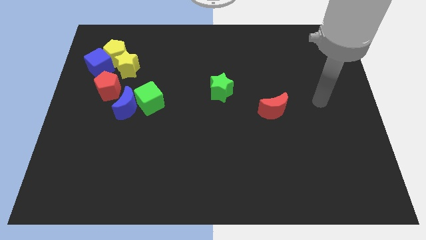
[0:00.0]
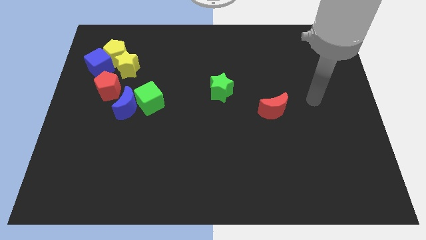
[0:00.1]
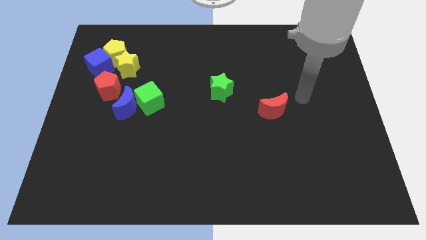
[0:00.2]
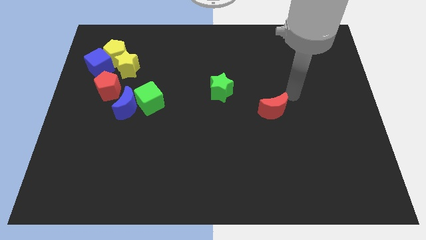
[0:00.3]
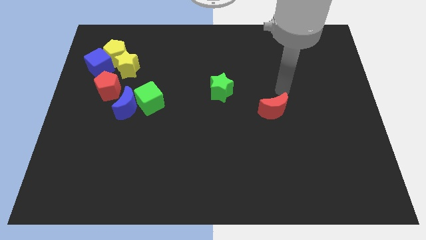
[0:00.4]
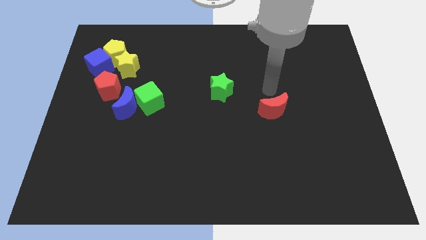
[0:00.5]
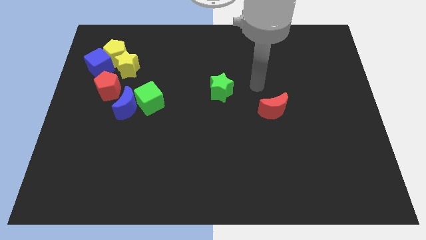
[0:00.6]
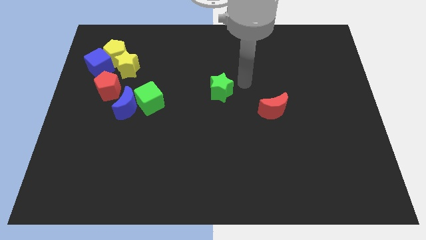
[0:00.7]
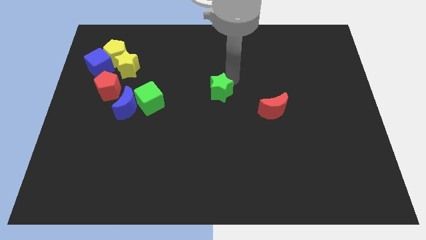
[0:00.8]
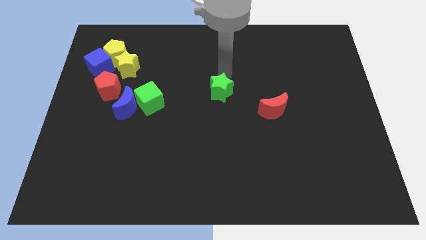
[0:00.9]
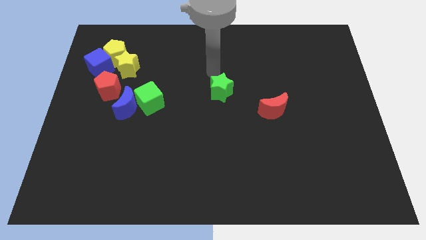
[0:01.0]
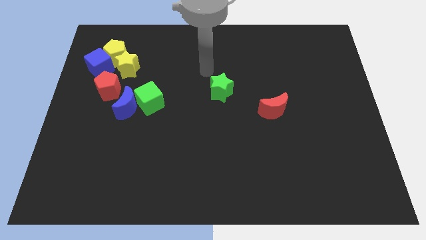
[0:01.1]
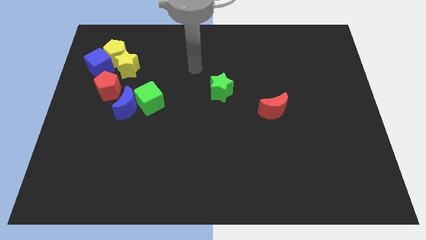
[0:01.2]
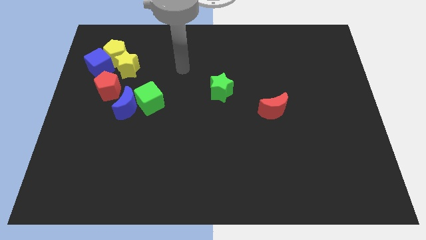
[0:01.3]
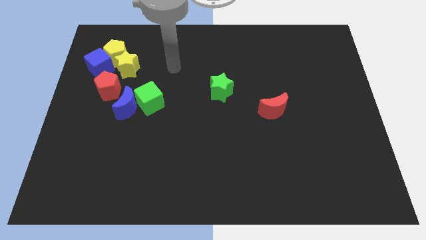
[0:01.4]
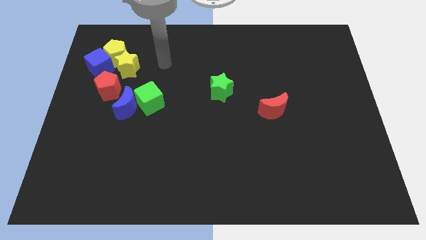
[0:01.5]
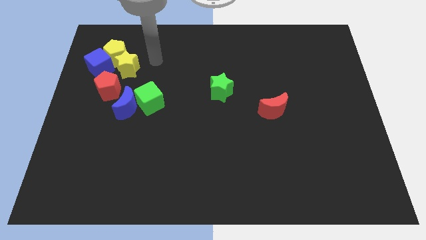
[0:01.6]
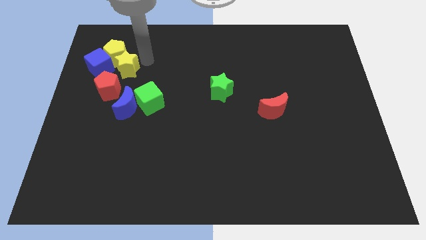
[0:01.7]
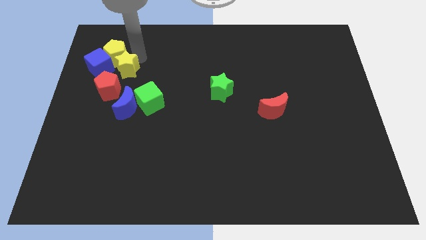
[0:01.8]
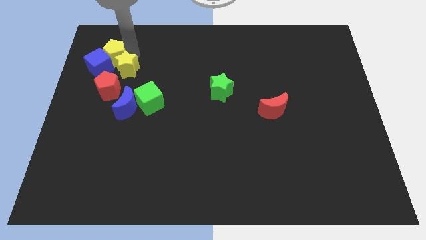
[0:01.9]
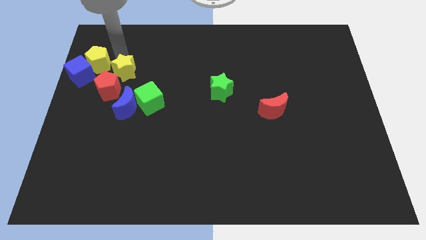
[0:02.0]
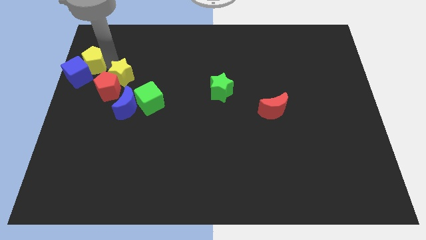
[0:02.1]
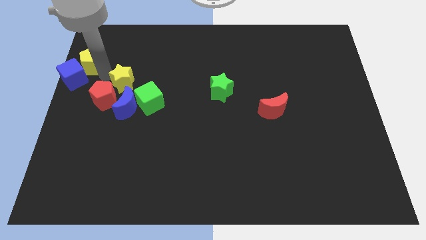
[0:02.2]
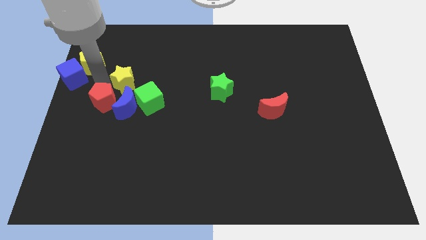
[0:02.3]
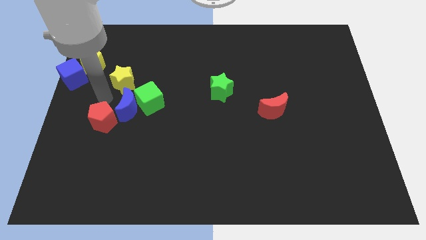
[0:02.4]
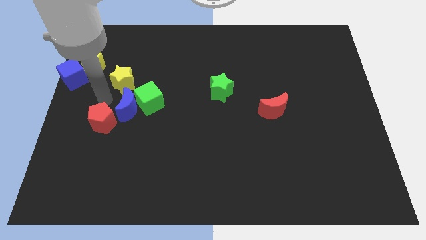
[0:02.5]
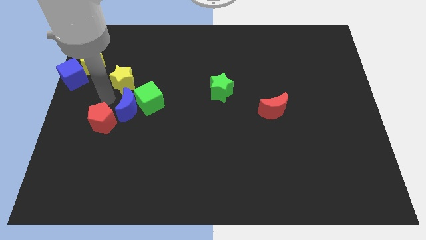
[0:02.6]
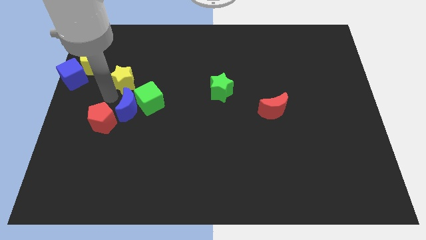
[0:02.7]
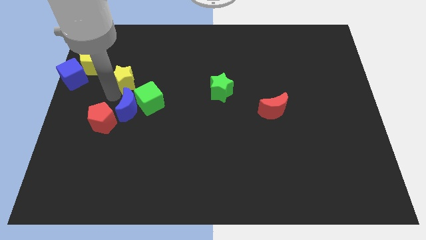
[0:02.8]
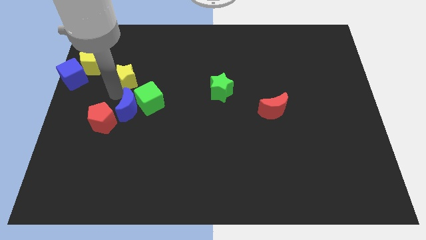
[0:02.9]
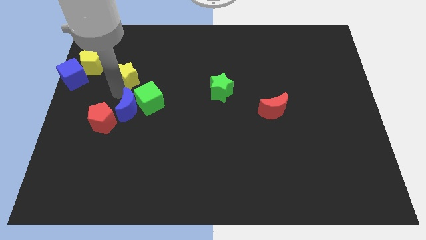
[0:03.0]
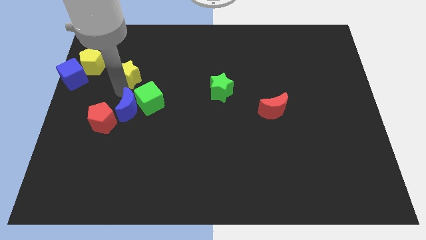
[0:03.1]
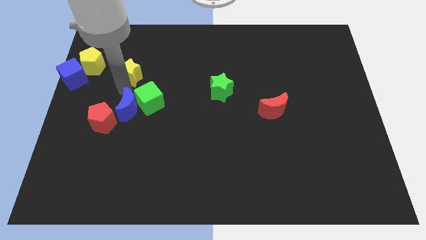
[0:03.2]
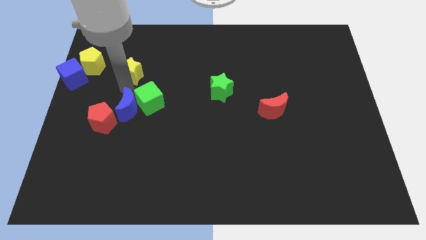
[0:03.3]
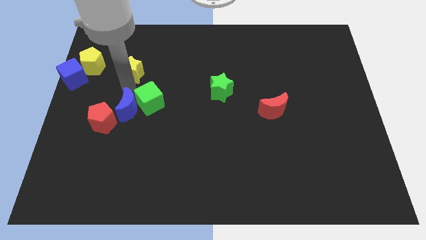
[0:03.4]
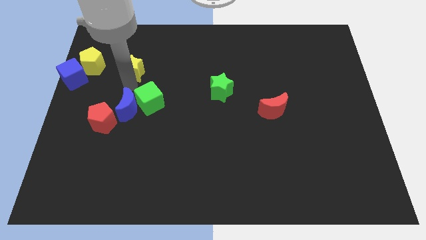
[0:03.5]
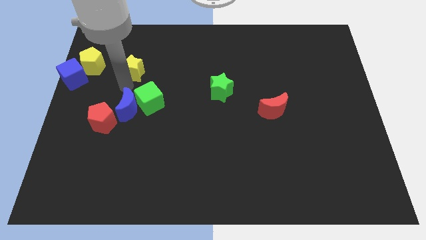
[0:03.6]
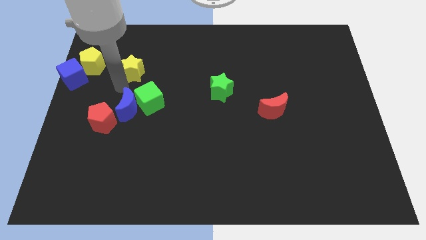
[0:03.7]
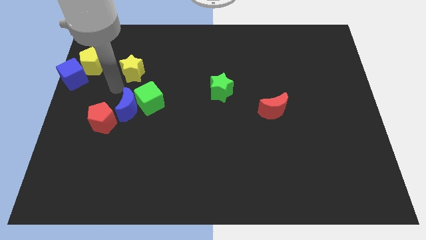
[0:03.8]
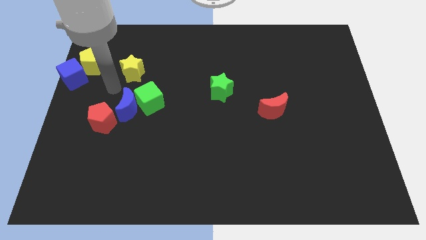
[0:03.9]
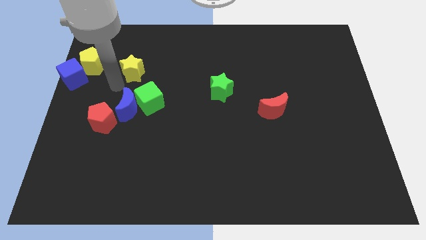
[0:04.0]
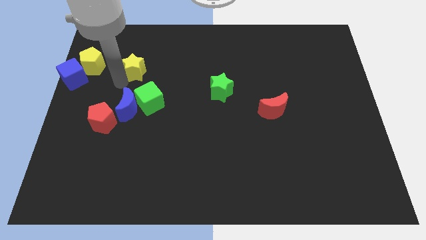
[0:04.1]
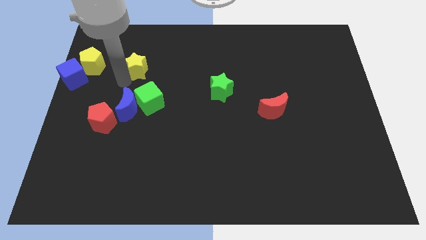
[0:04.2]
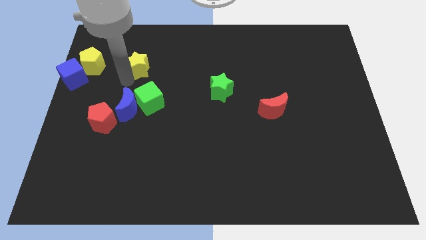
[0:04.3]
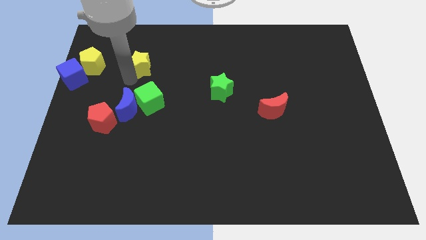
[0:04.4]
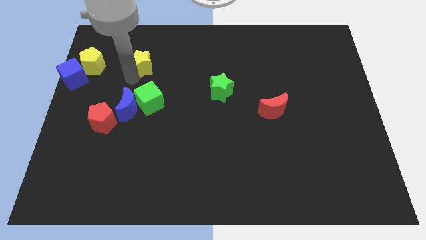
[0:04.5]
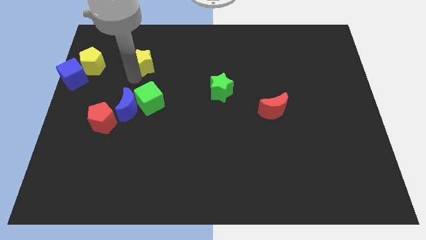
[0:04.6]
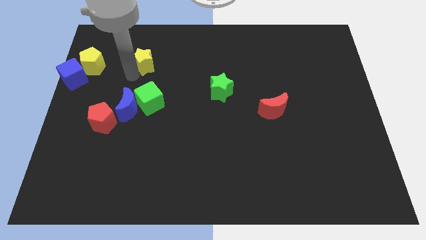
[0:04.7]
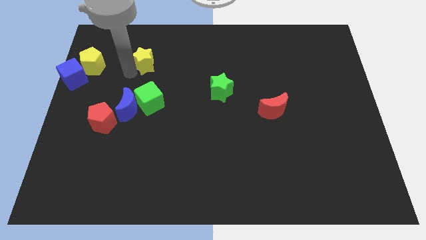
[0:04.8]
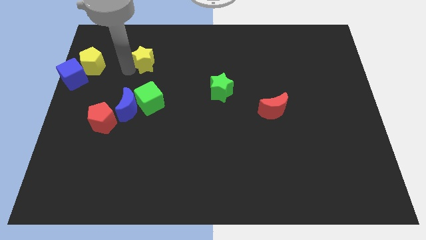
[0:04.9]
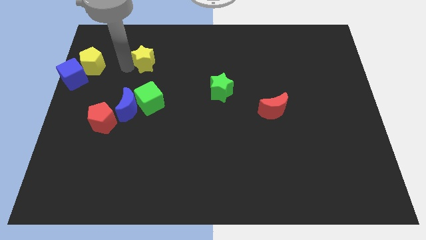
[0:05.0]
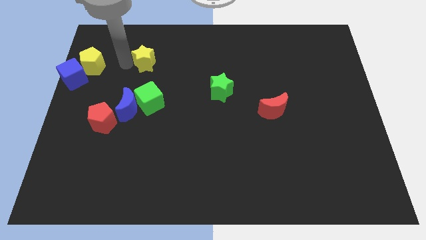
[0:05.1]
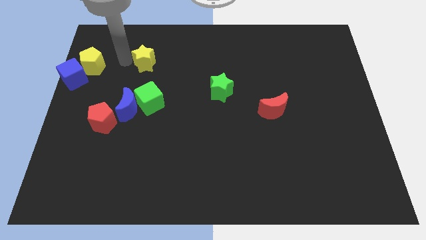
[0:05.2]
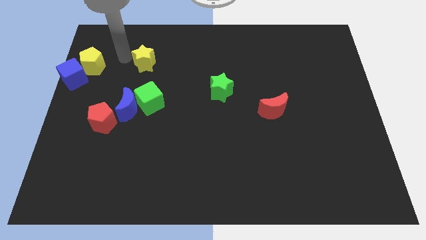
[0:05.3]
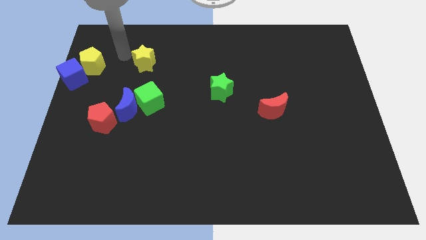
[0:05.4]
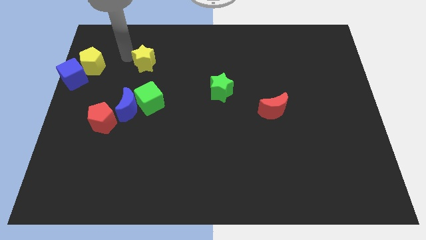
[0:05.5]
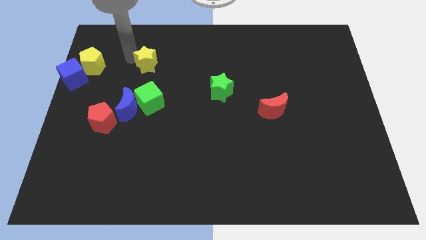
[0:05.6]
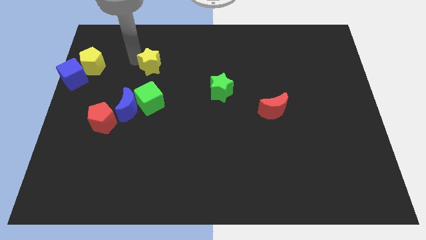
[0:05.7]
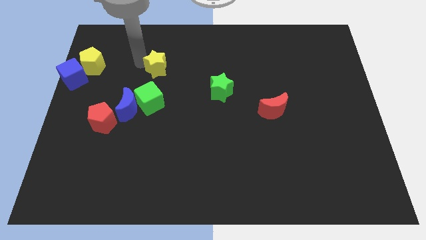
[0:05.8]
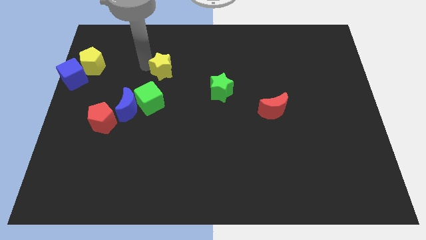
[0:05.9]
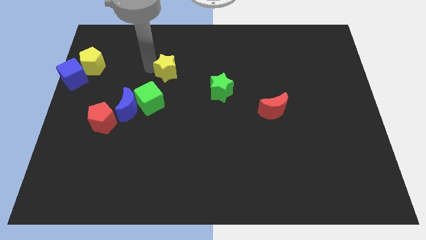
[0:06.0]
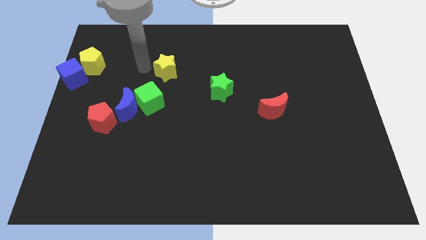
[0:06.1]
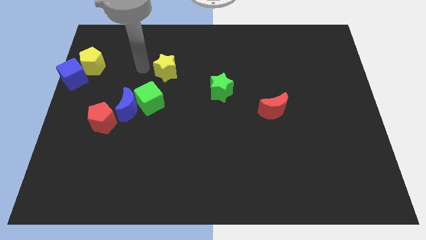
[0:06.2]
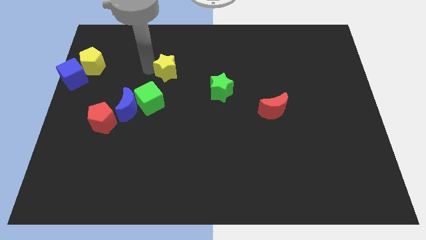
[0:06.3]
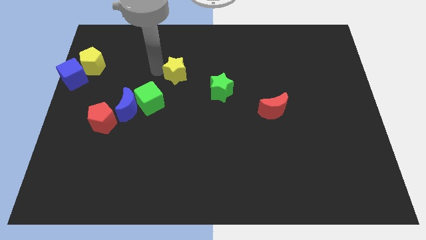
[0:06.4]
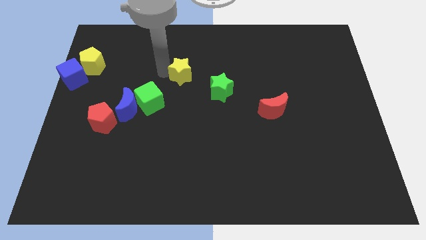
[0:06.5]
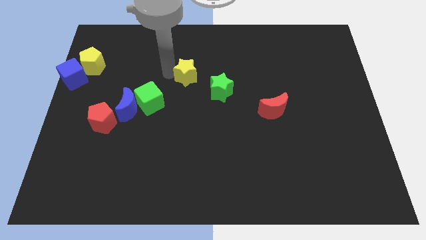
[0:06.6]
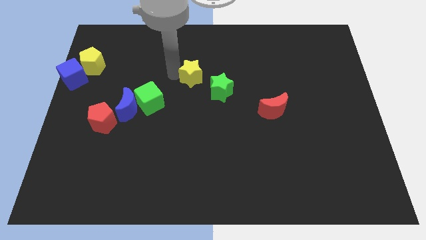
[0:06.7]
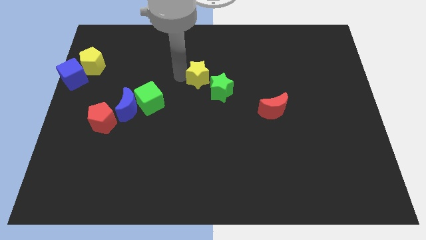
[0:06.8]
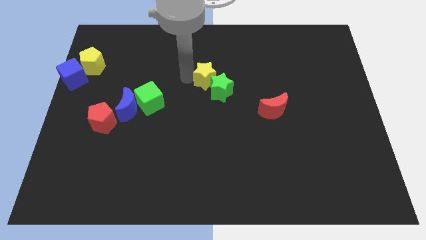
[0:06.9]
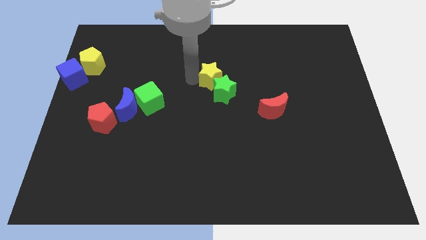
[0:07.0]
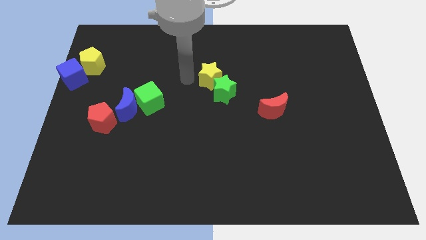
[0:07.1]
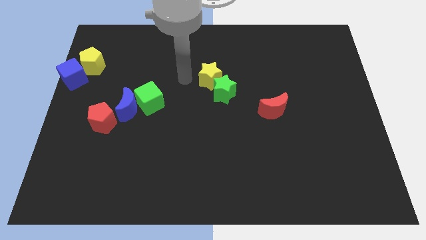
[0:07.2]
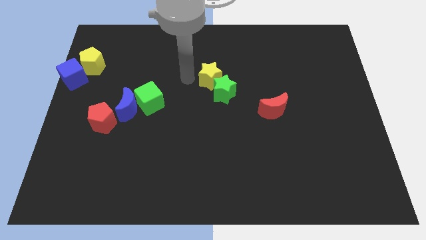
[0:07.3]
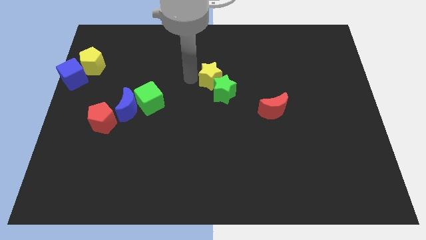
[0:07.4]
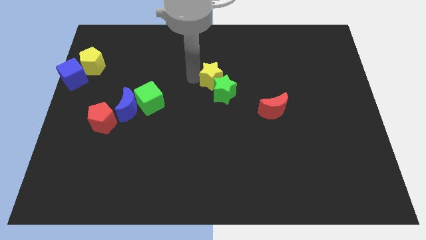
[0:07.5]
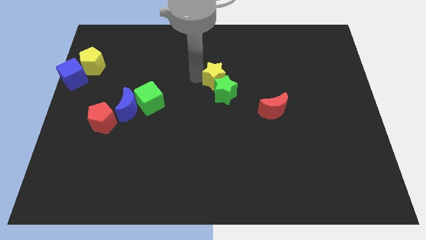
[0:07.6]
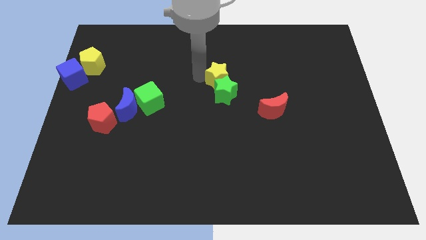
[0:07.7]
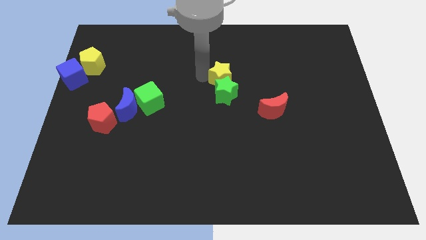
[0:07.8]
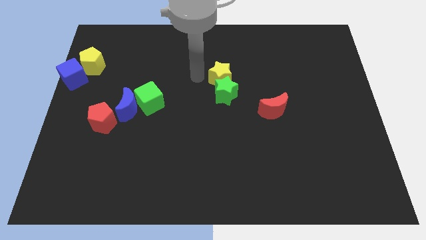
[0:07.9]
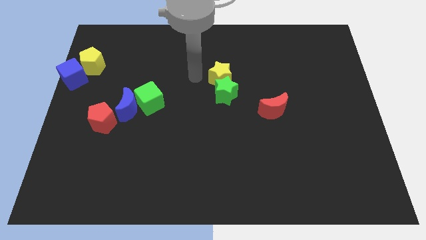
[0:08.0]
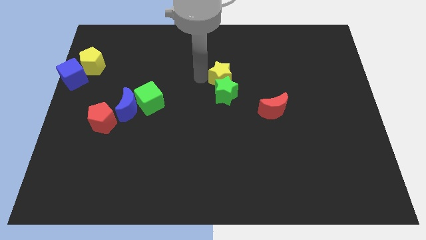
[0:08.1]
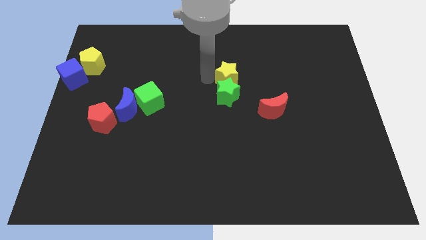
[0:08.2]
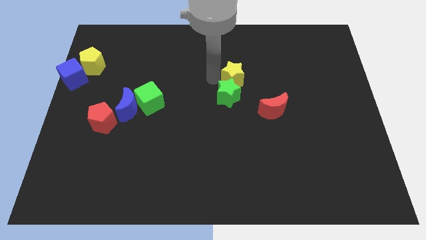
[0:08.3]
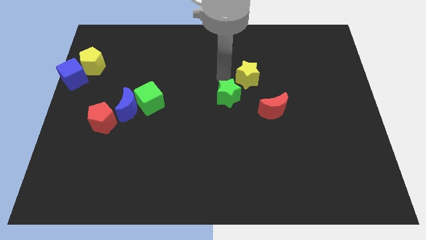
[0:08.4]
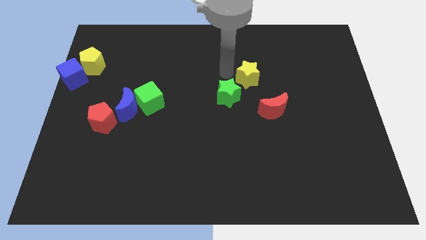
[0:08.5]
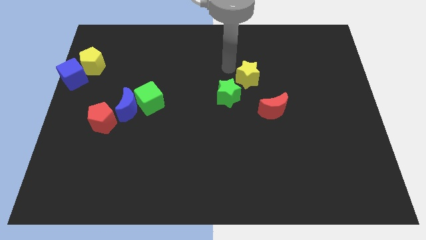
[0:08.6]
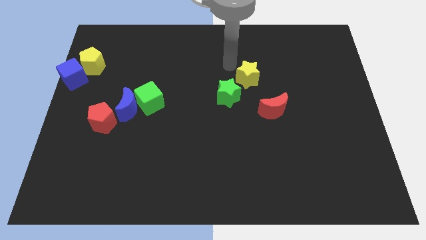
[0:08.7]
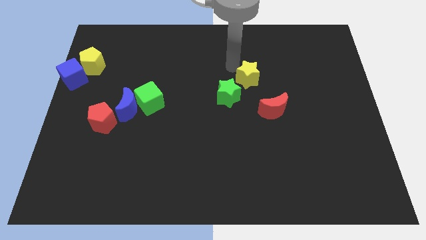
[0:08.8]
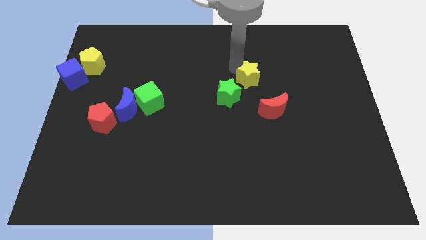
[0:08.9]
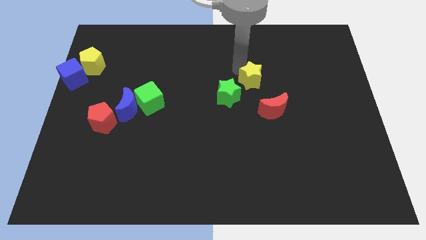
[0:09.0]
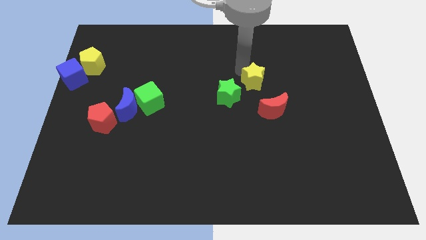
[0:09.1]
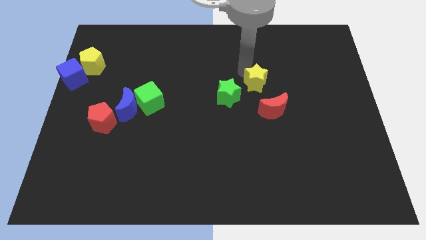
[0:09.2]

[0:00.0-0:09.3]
push the yellow star just right of the green star
